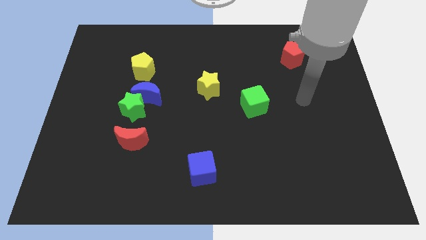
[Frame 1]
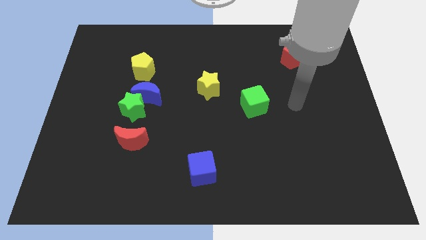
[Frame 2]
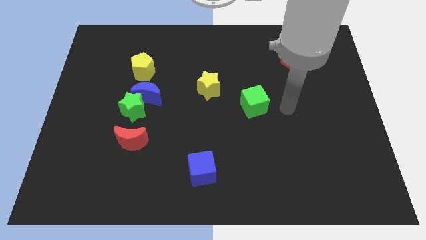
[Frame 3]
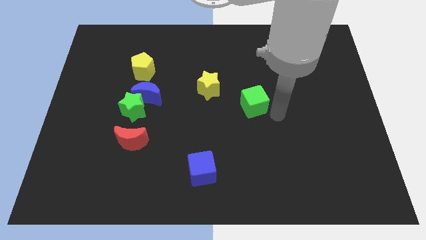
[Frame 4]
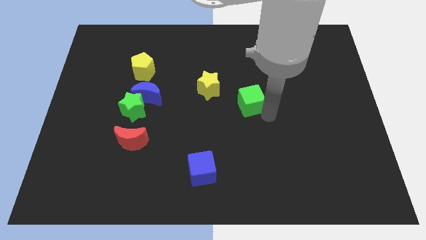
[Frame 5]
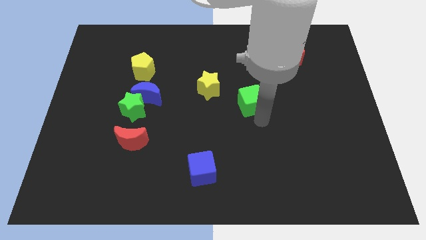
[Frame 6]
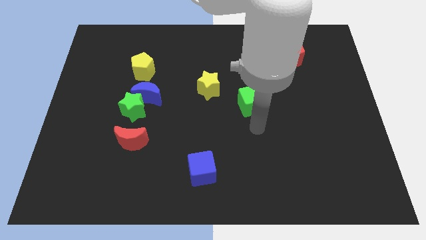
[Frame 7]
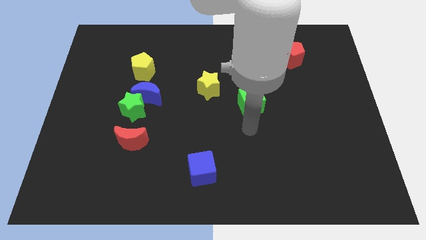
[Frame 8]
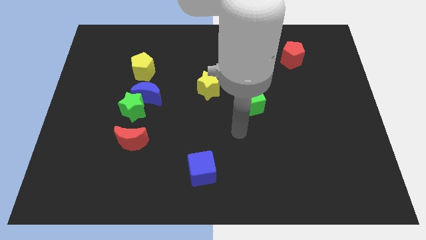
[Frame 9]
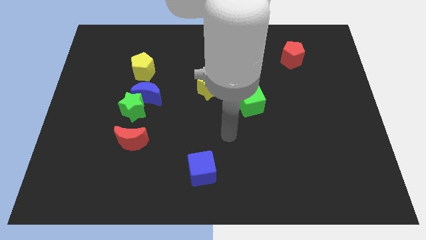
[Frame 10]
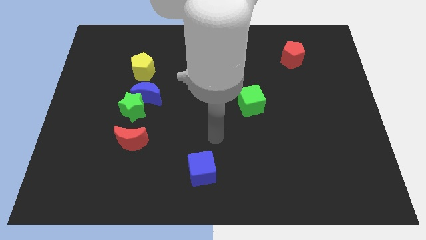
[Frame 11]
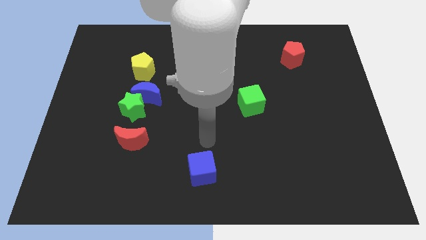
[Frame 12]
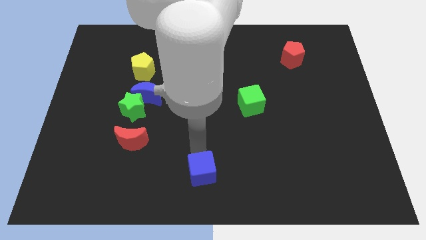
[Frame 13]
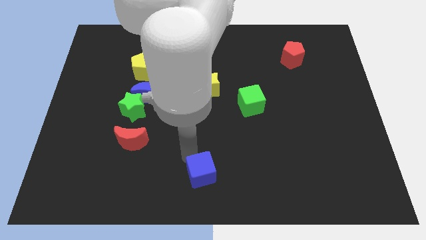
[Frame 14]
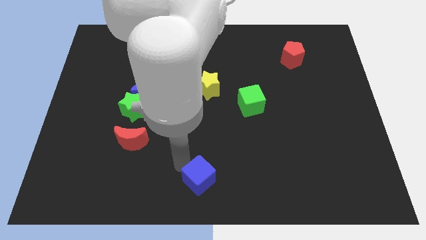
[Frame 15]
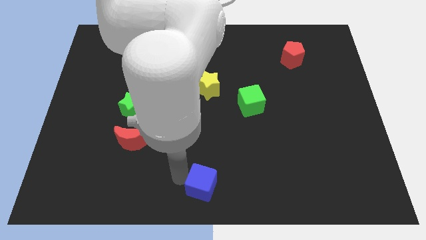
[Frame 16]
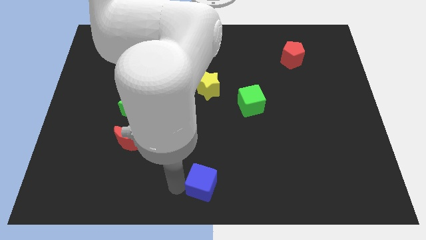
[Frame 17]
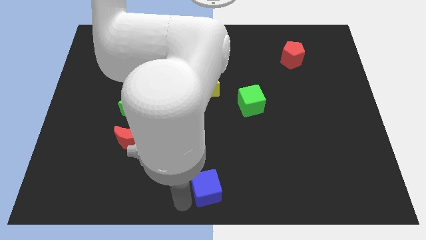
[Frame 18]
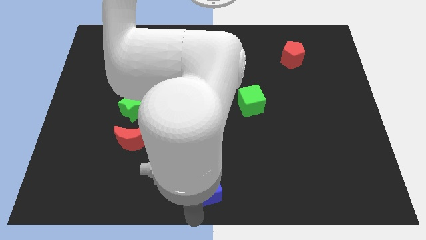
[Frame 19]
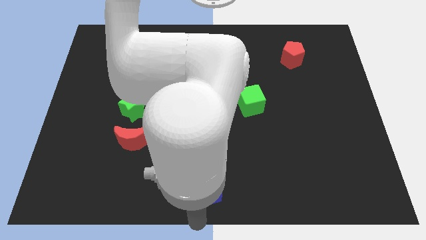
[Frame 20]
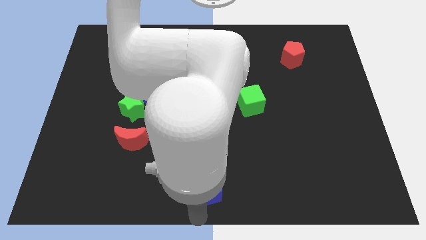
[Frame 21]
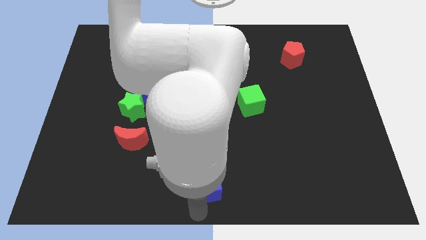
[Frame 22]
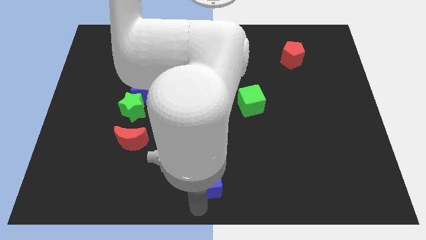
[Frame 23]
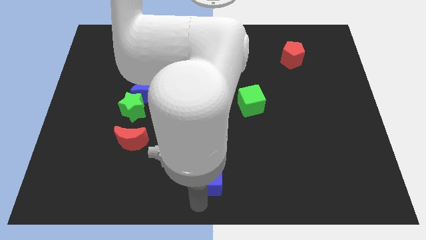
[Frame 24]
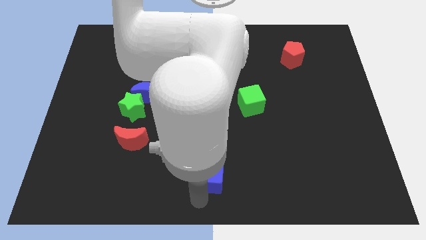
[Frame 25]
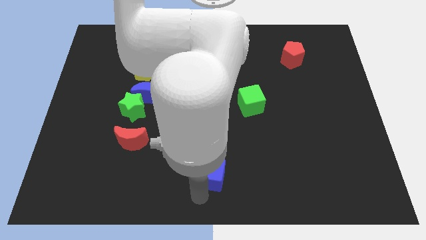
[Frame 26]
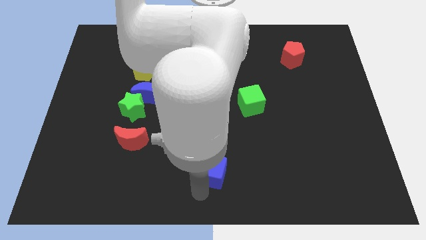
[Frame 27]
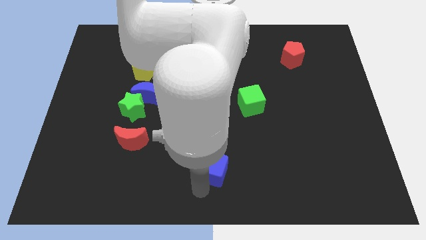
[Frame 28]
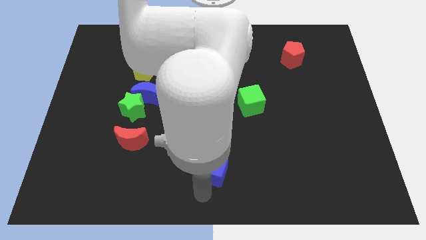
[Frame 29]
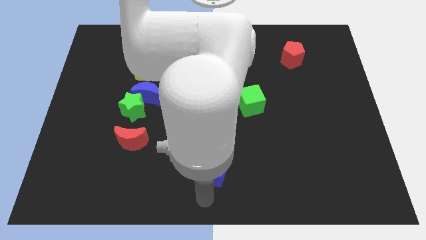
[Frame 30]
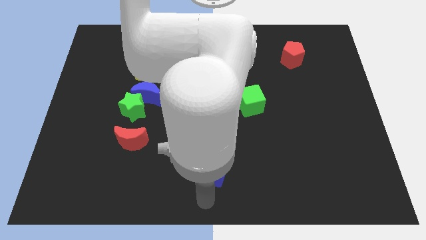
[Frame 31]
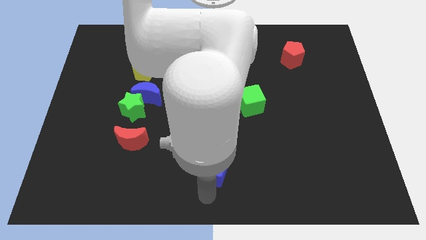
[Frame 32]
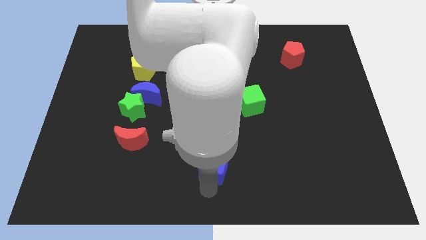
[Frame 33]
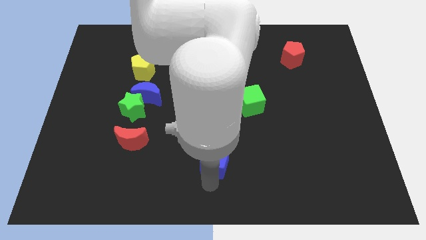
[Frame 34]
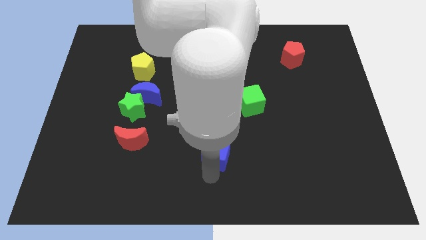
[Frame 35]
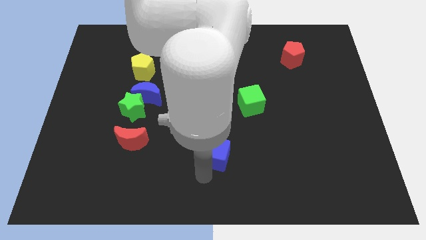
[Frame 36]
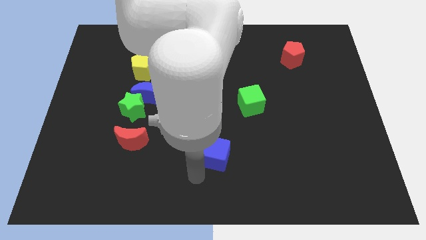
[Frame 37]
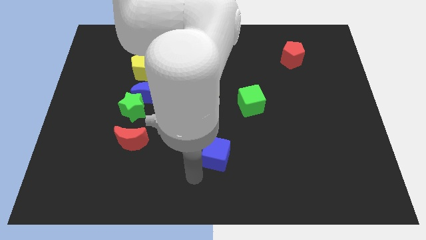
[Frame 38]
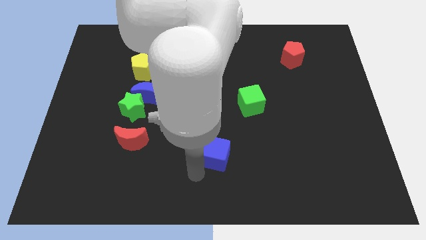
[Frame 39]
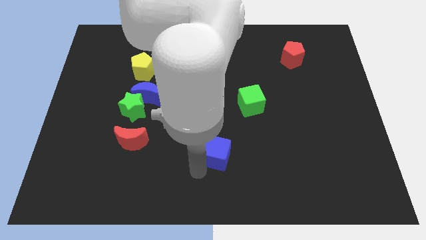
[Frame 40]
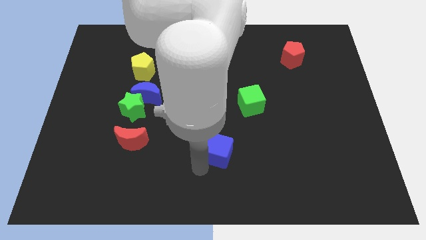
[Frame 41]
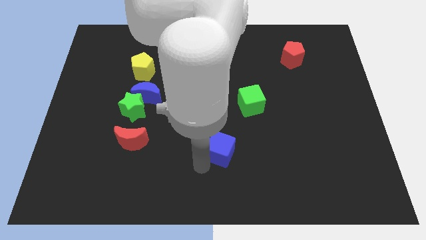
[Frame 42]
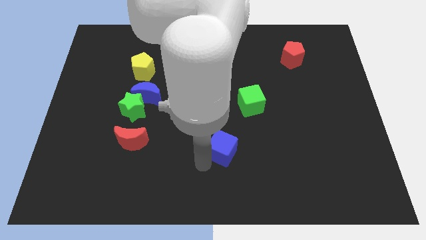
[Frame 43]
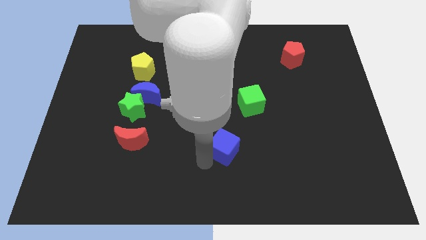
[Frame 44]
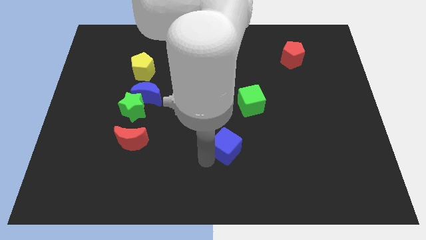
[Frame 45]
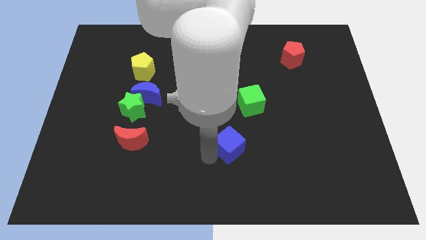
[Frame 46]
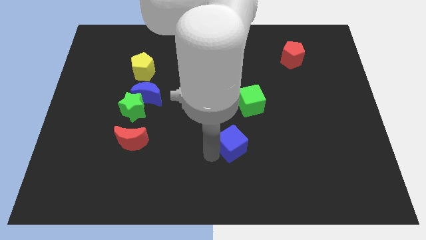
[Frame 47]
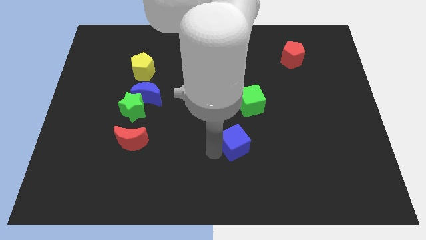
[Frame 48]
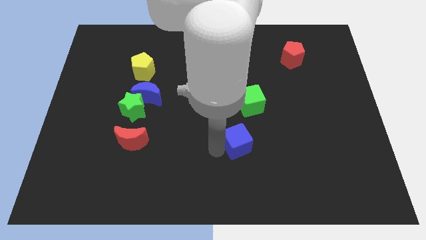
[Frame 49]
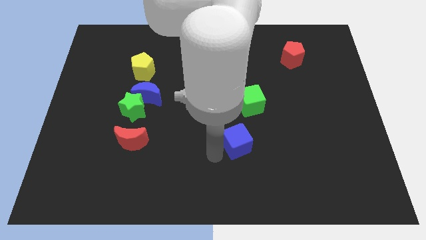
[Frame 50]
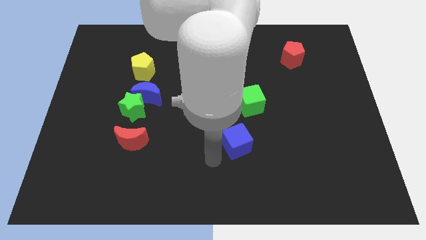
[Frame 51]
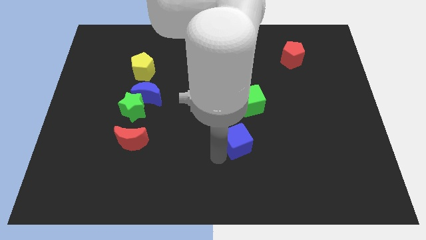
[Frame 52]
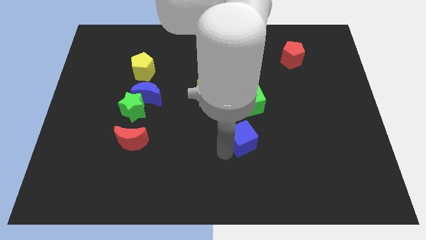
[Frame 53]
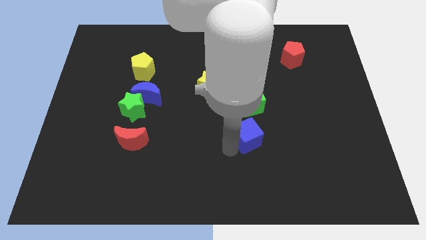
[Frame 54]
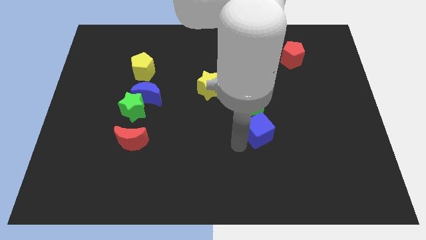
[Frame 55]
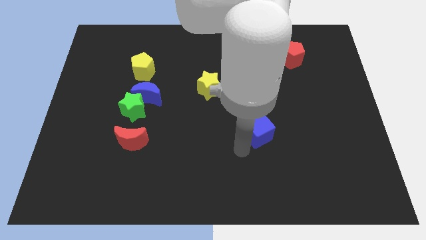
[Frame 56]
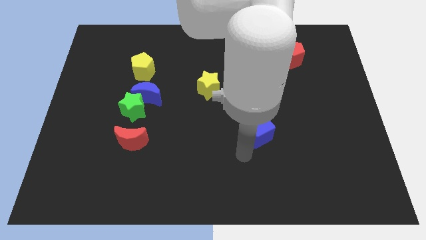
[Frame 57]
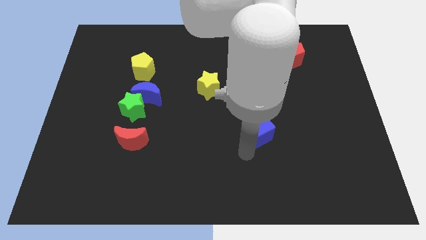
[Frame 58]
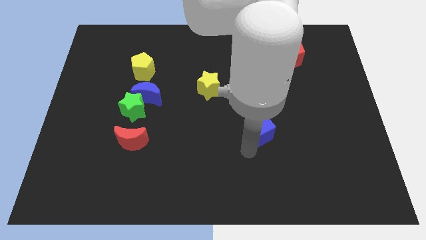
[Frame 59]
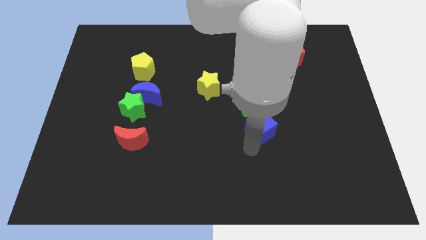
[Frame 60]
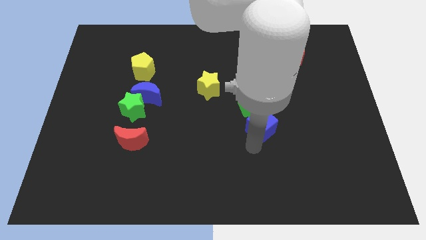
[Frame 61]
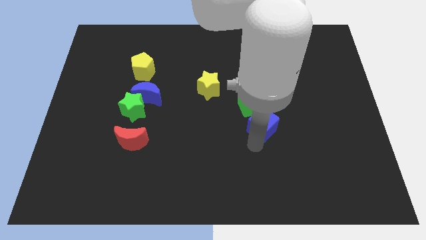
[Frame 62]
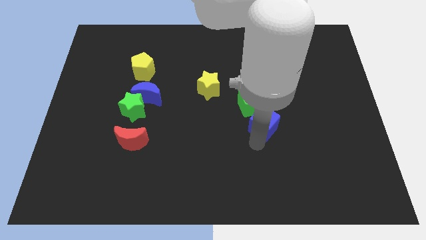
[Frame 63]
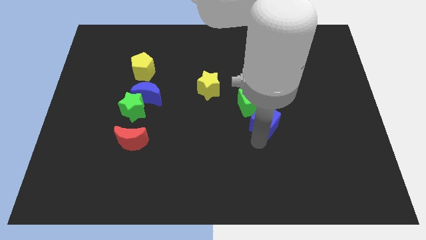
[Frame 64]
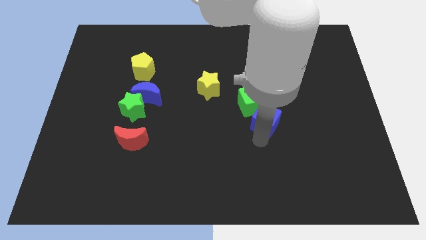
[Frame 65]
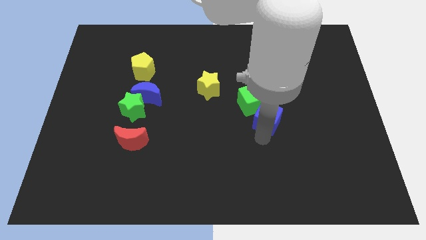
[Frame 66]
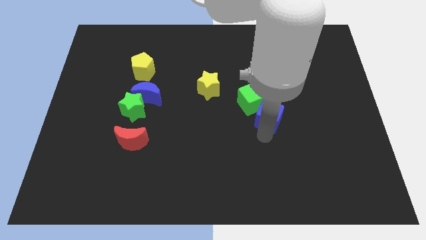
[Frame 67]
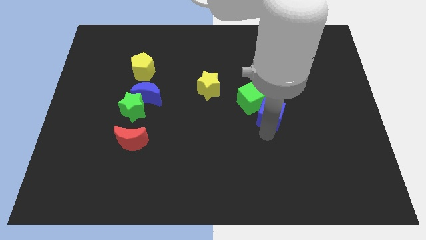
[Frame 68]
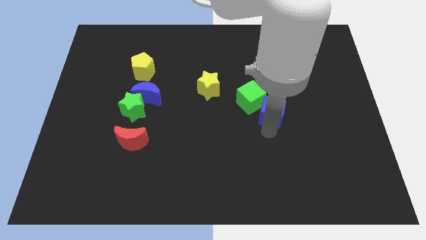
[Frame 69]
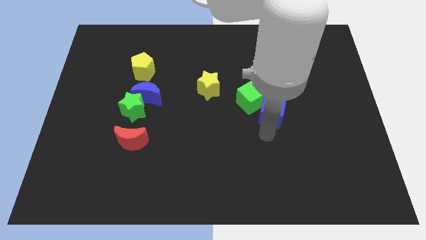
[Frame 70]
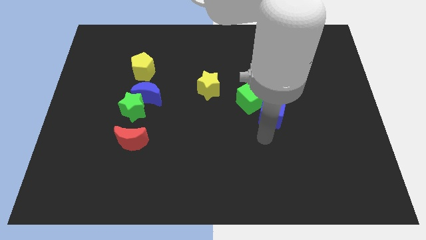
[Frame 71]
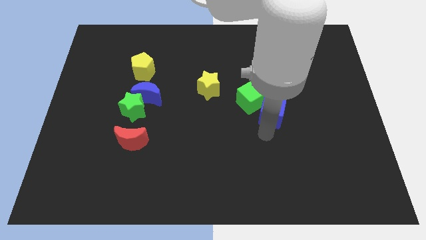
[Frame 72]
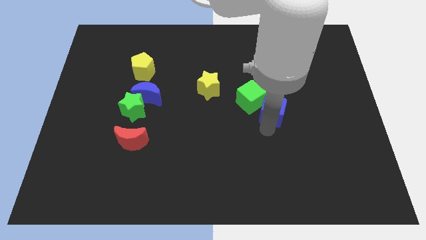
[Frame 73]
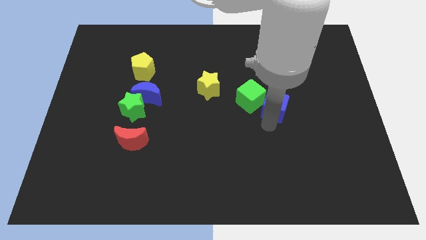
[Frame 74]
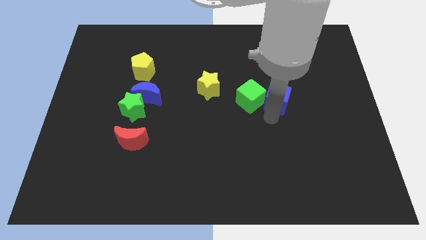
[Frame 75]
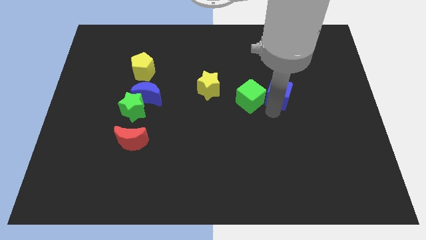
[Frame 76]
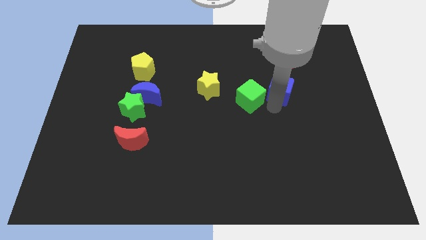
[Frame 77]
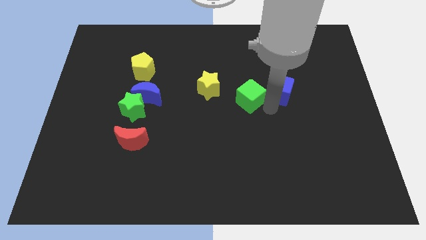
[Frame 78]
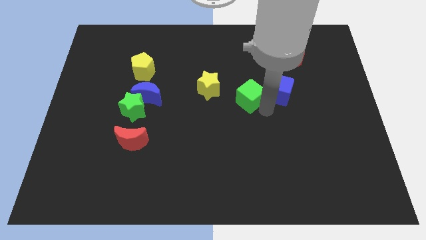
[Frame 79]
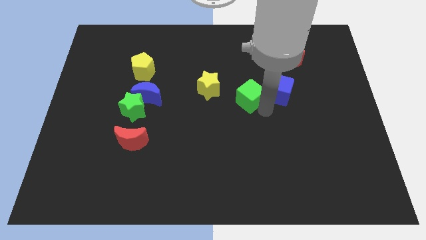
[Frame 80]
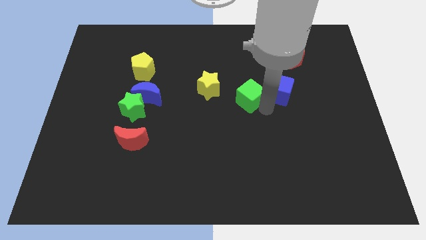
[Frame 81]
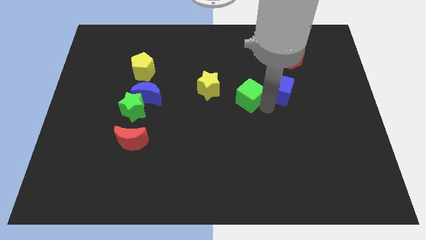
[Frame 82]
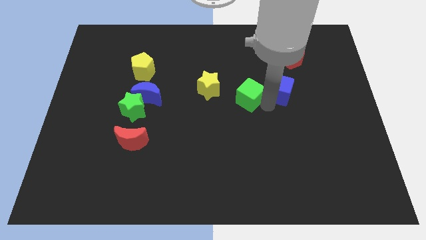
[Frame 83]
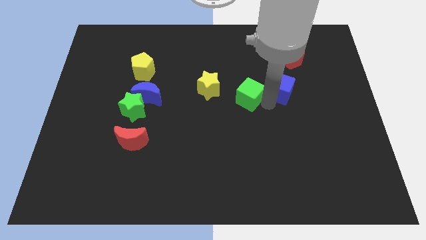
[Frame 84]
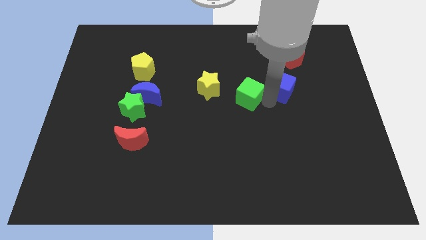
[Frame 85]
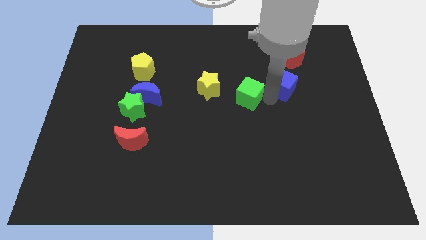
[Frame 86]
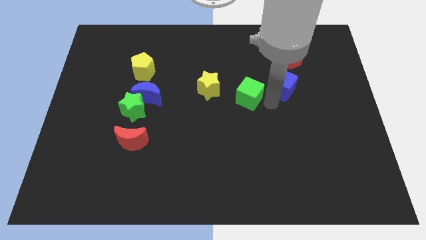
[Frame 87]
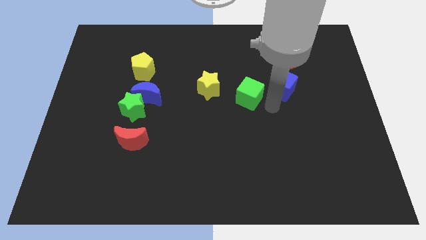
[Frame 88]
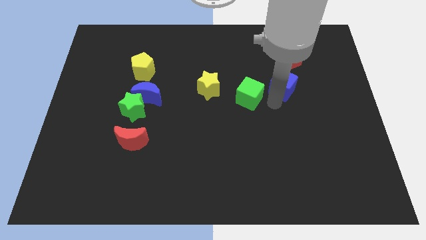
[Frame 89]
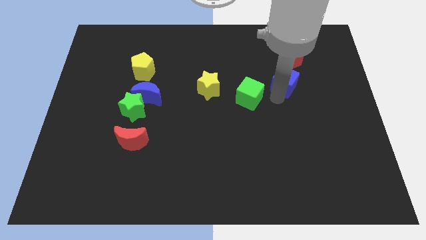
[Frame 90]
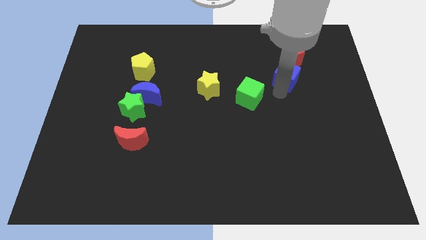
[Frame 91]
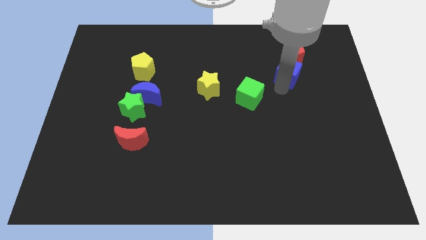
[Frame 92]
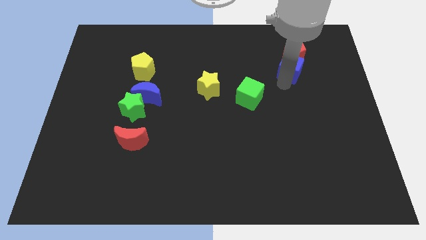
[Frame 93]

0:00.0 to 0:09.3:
move the blue cube close to the red pentagon
